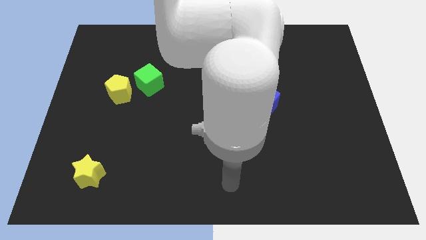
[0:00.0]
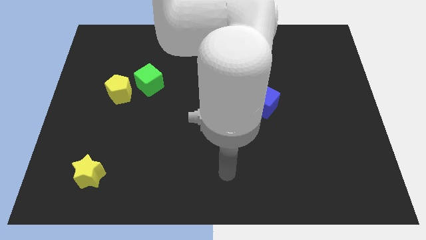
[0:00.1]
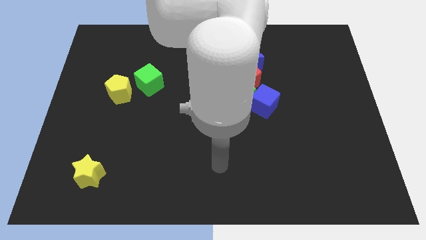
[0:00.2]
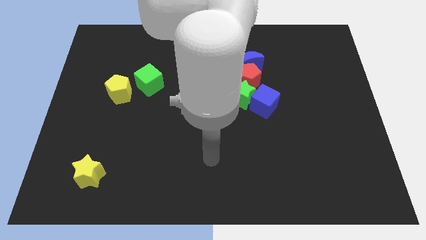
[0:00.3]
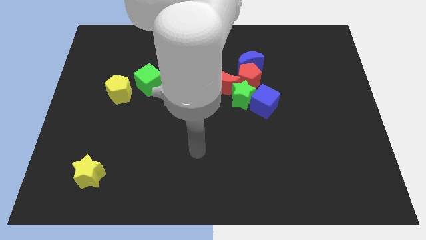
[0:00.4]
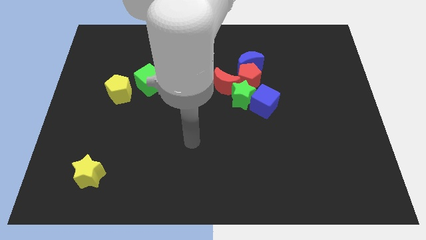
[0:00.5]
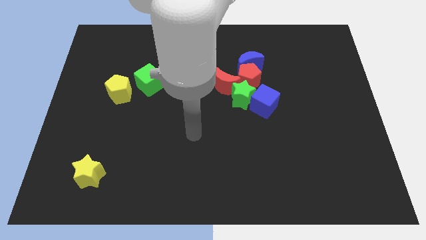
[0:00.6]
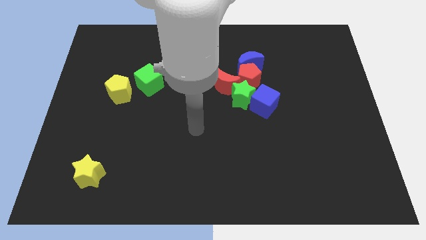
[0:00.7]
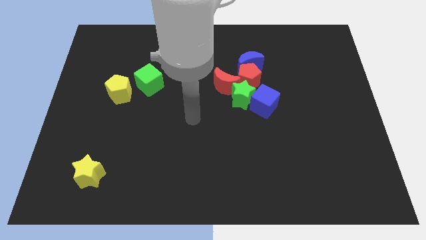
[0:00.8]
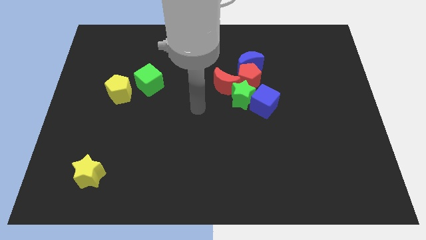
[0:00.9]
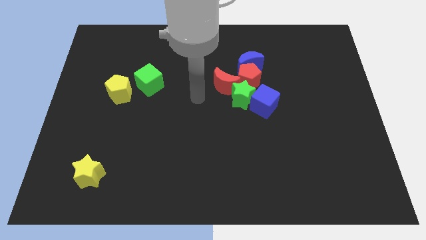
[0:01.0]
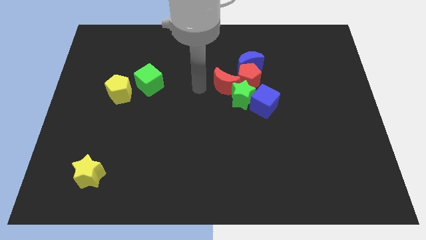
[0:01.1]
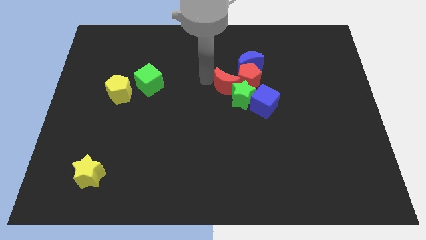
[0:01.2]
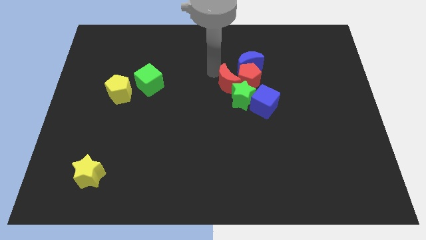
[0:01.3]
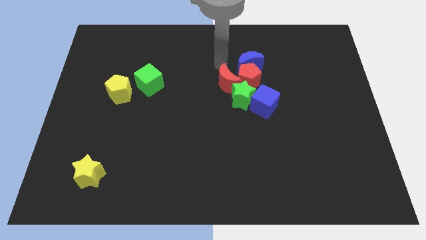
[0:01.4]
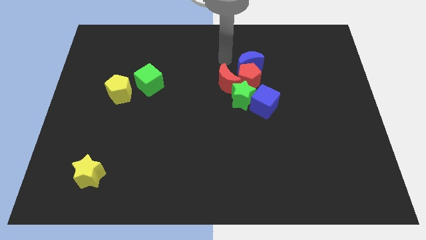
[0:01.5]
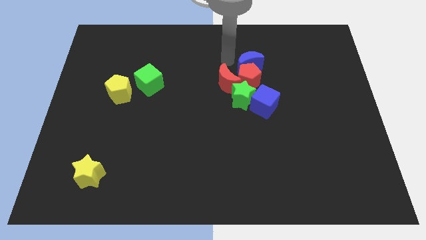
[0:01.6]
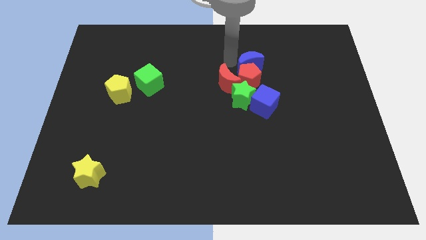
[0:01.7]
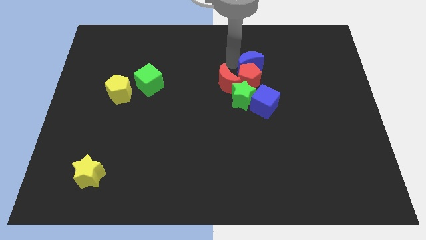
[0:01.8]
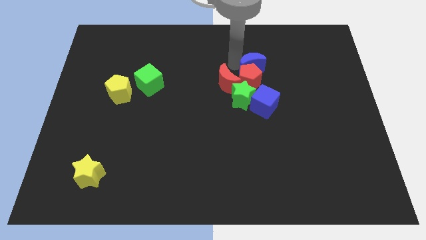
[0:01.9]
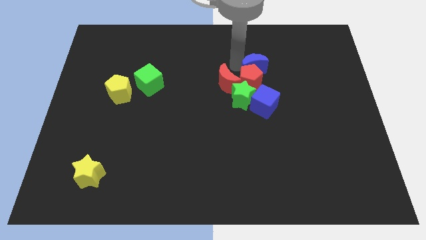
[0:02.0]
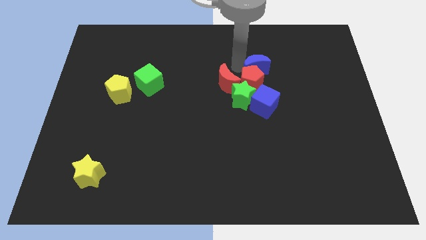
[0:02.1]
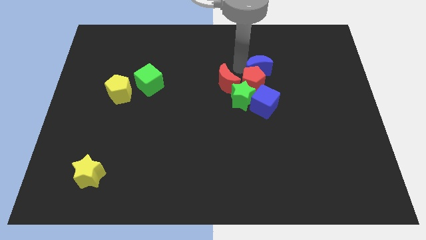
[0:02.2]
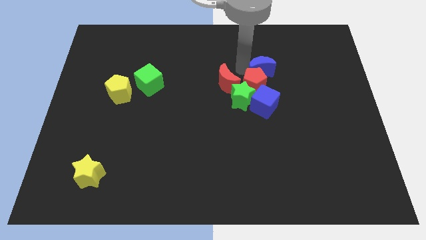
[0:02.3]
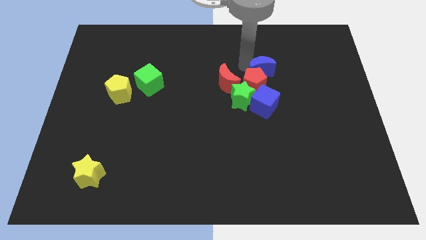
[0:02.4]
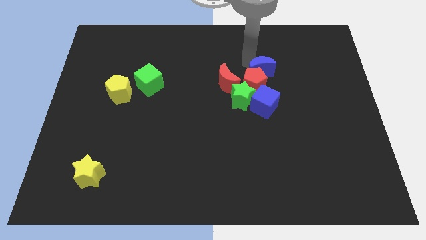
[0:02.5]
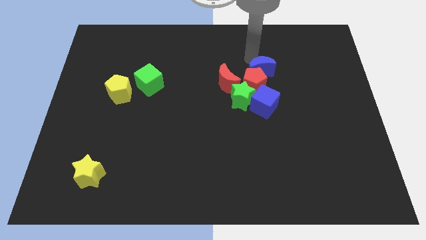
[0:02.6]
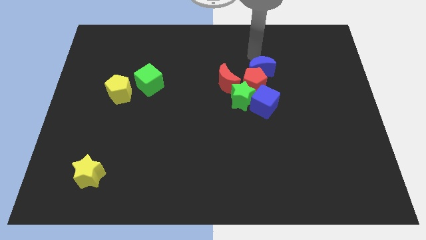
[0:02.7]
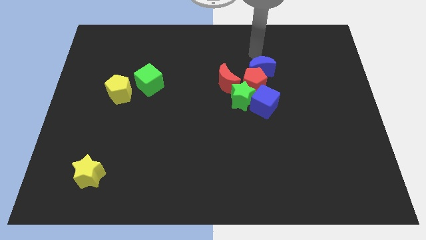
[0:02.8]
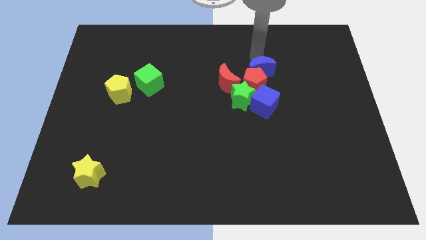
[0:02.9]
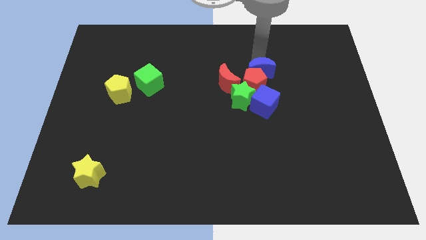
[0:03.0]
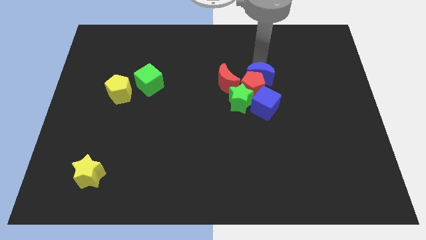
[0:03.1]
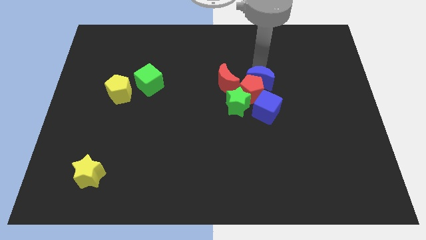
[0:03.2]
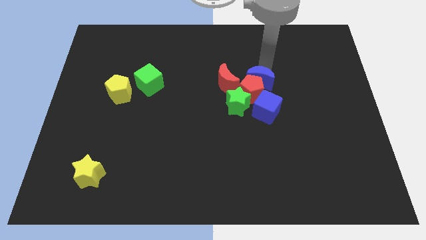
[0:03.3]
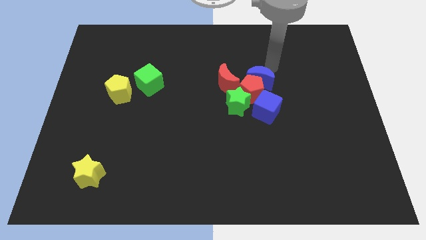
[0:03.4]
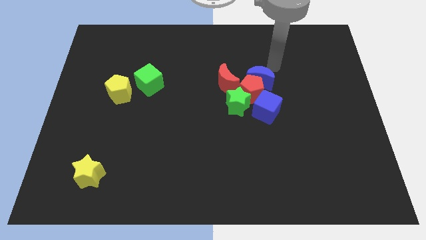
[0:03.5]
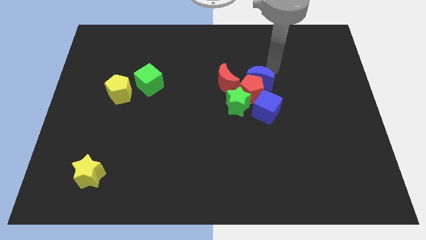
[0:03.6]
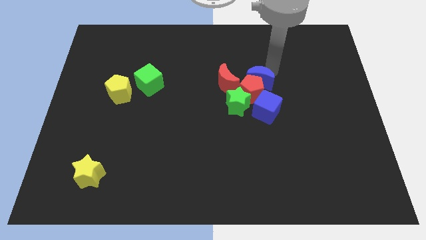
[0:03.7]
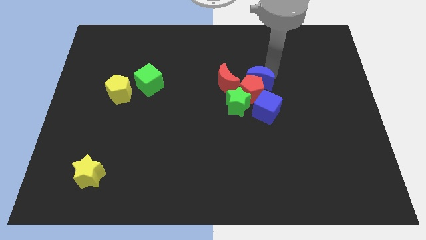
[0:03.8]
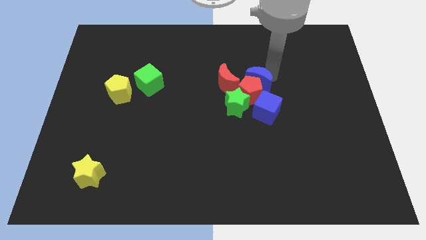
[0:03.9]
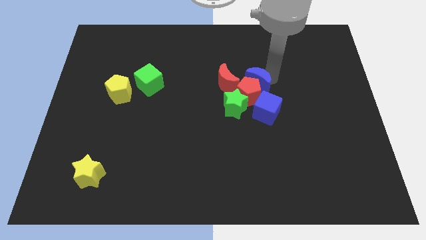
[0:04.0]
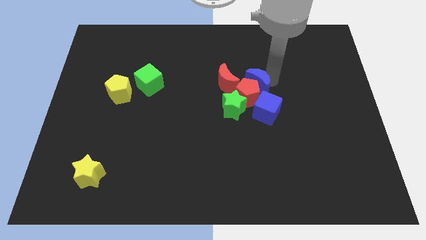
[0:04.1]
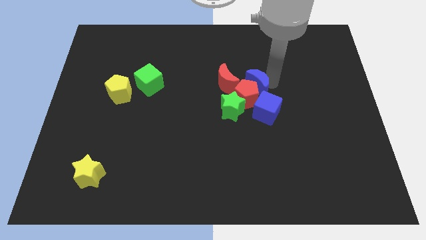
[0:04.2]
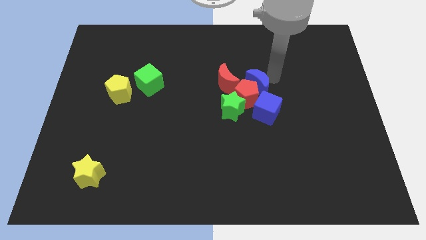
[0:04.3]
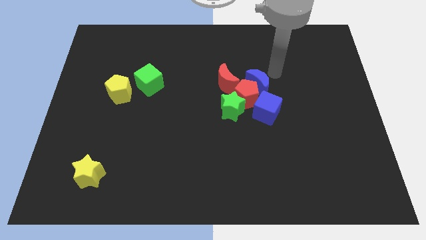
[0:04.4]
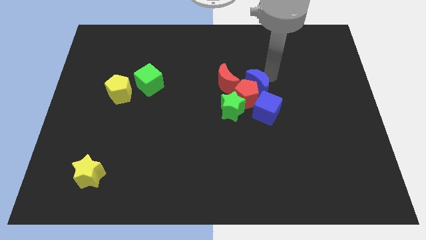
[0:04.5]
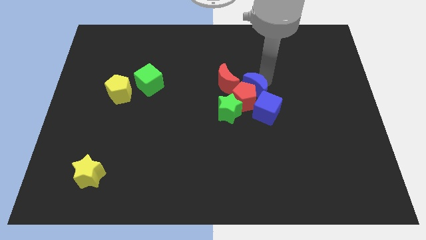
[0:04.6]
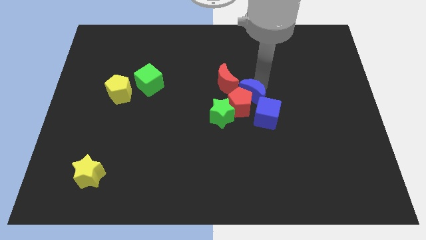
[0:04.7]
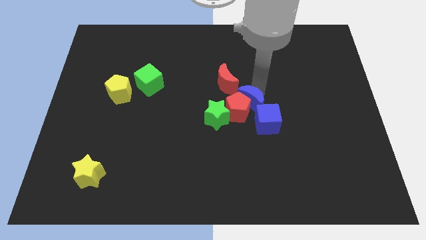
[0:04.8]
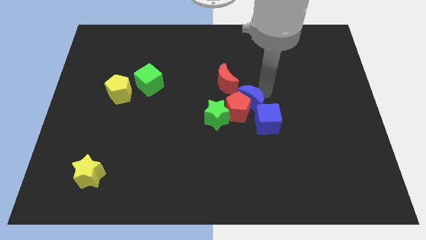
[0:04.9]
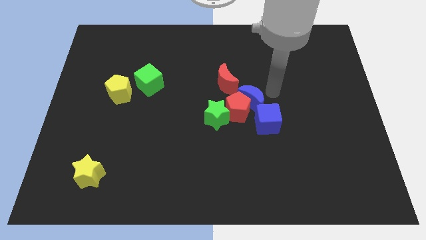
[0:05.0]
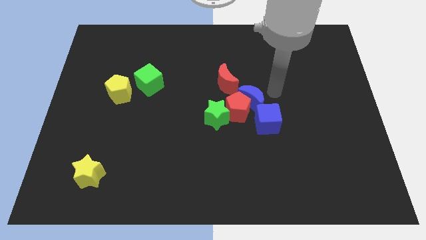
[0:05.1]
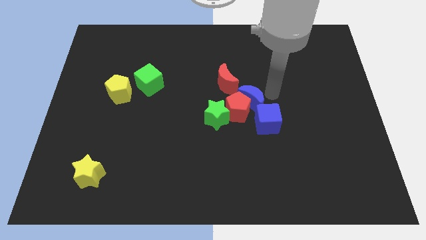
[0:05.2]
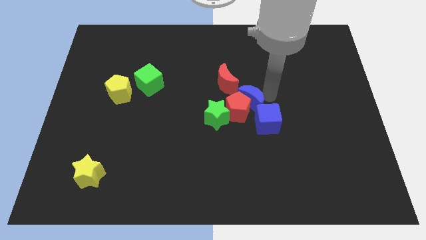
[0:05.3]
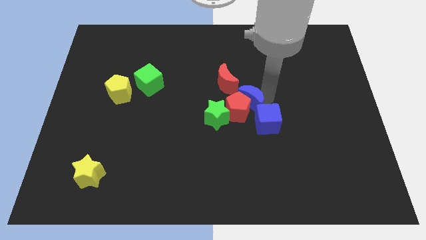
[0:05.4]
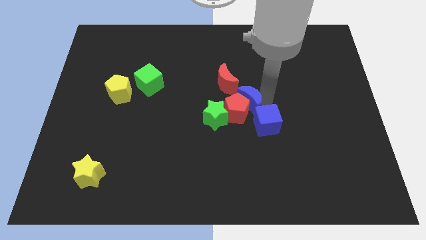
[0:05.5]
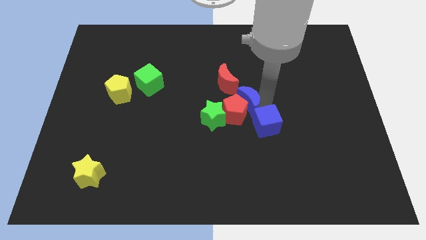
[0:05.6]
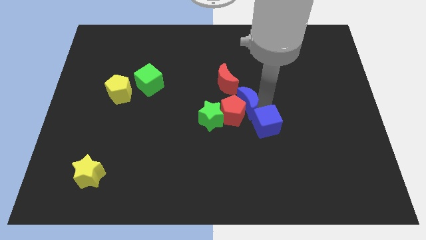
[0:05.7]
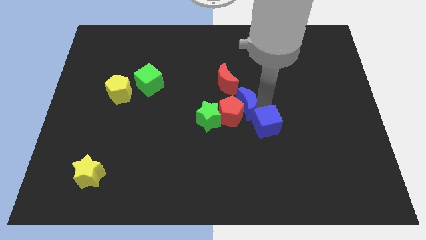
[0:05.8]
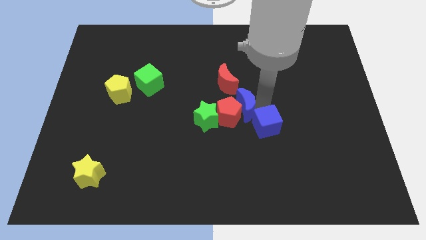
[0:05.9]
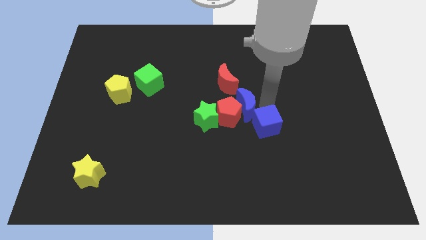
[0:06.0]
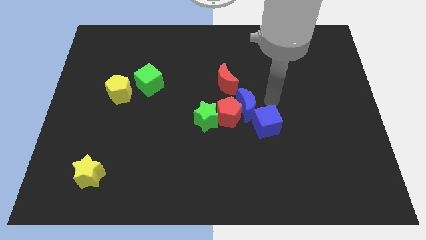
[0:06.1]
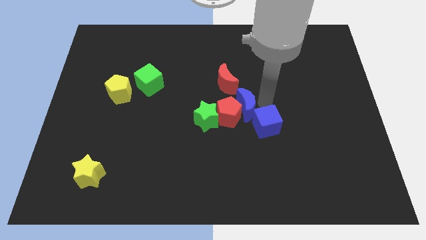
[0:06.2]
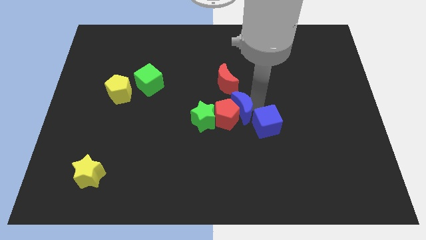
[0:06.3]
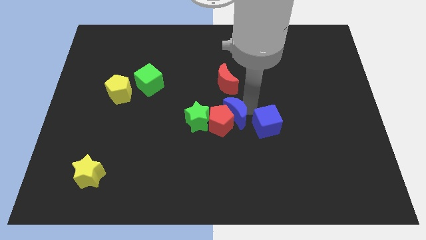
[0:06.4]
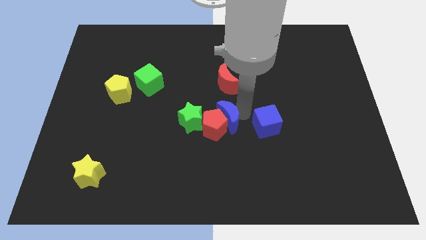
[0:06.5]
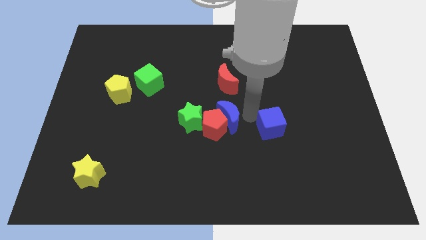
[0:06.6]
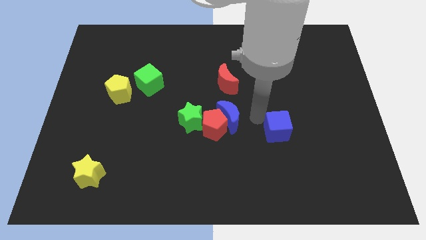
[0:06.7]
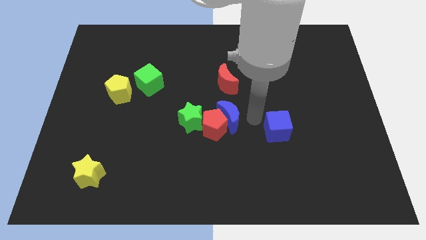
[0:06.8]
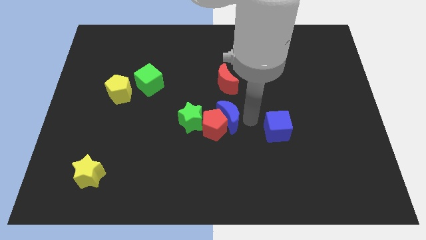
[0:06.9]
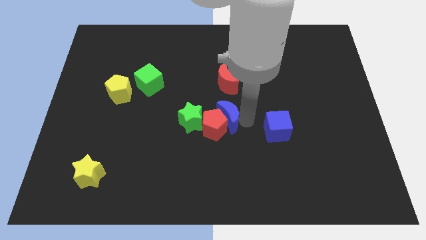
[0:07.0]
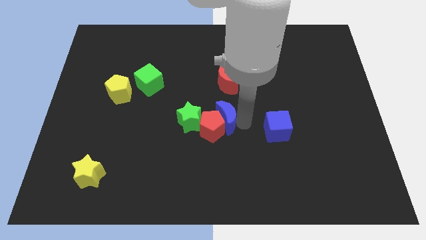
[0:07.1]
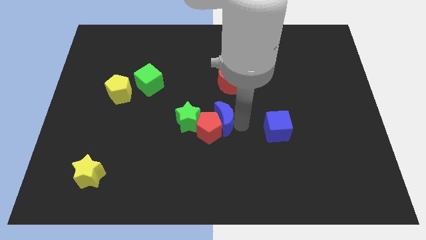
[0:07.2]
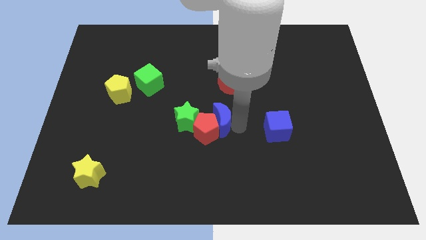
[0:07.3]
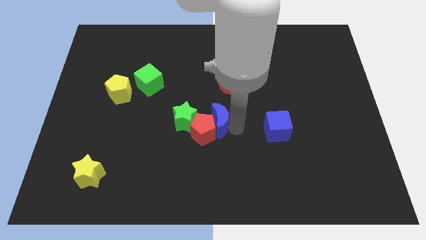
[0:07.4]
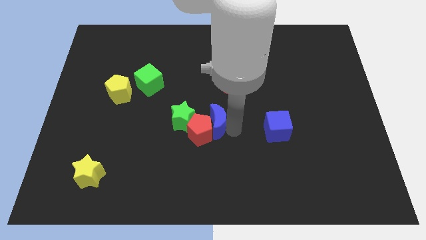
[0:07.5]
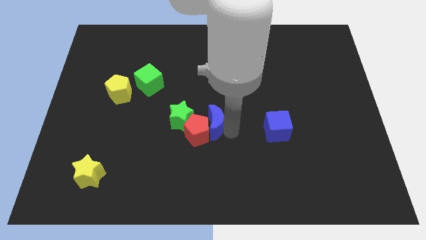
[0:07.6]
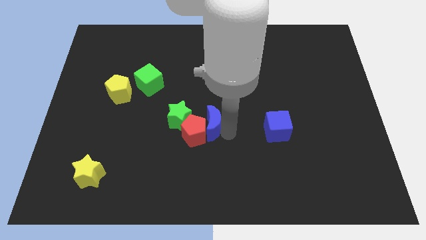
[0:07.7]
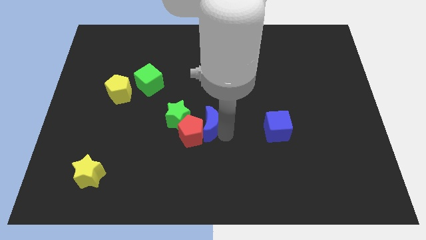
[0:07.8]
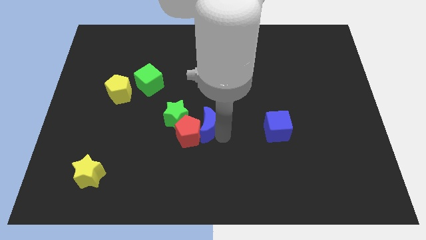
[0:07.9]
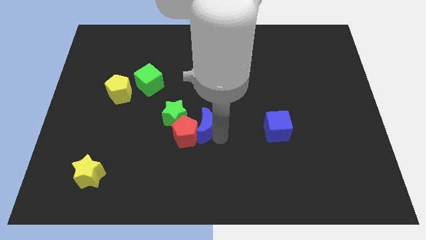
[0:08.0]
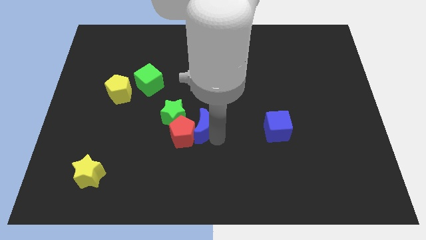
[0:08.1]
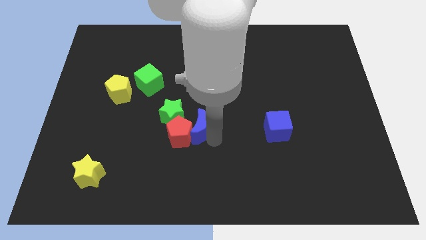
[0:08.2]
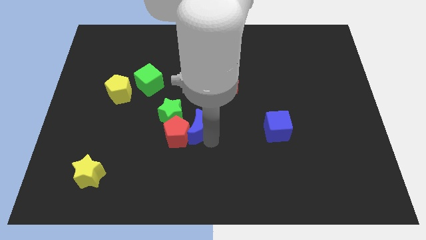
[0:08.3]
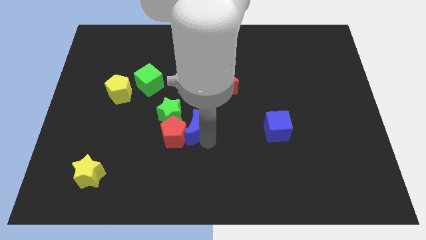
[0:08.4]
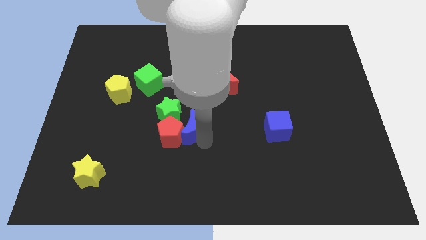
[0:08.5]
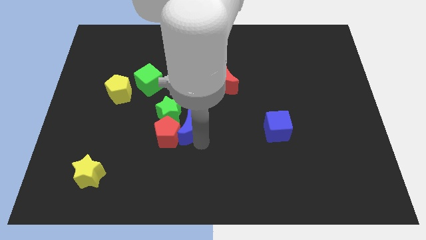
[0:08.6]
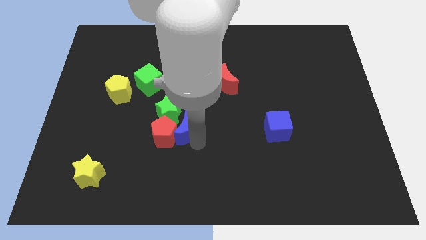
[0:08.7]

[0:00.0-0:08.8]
move the blue moon next to the green star
